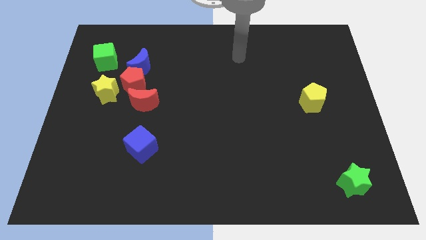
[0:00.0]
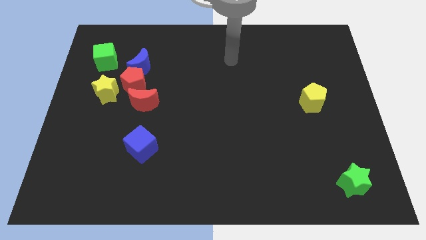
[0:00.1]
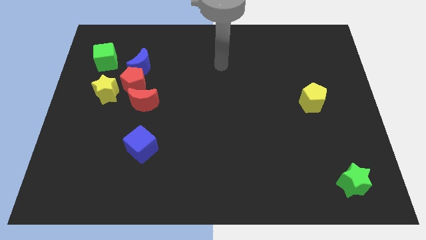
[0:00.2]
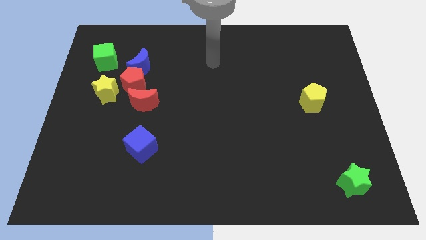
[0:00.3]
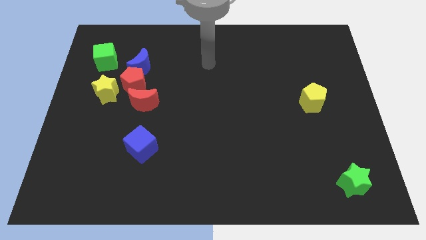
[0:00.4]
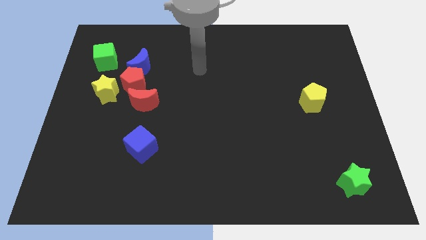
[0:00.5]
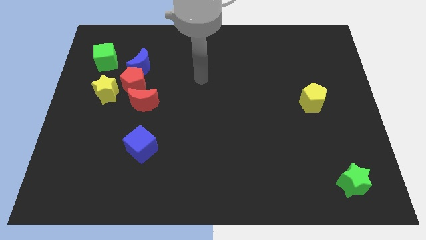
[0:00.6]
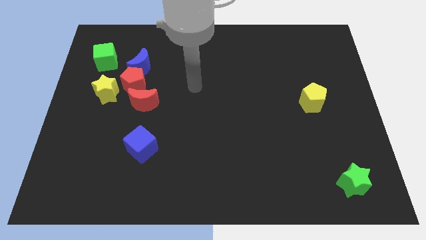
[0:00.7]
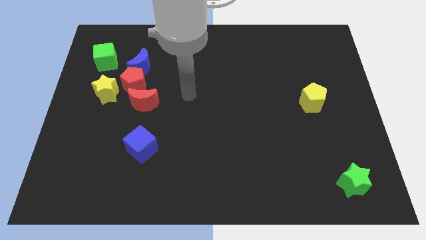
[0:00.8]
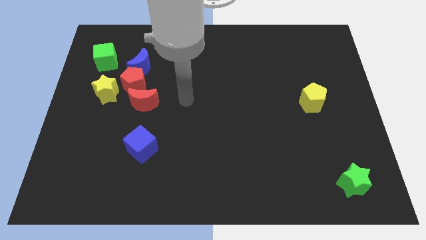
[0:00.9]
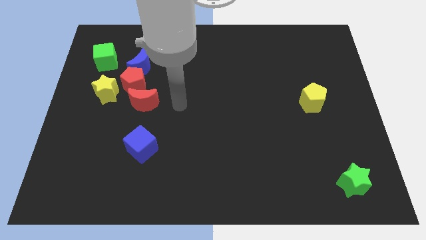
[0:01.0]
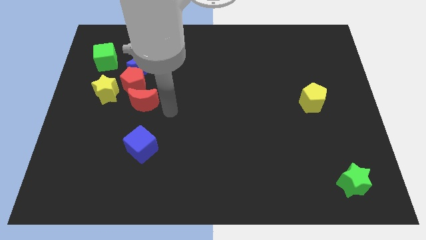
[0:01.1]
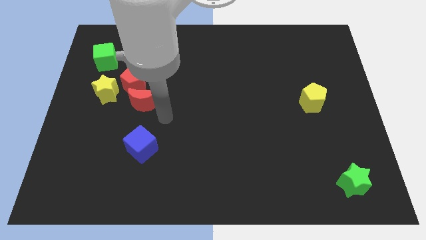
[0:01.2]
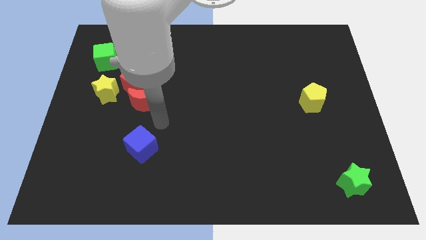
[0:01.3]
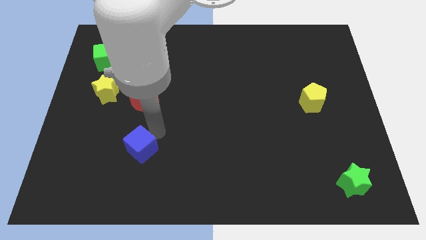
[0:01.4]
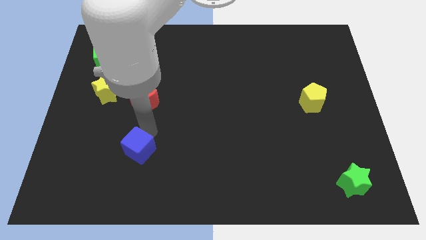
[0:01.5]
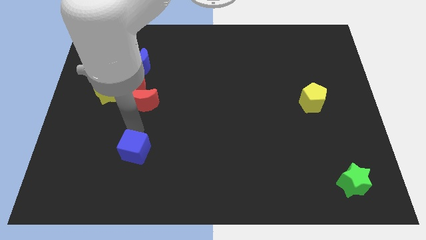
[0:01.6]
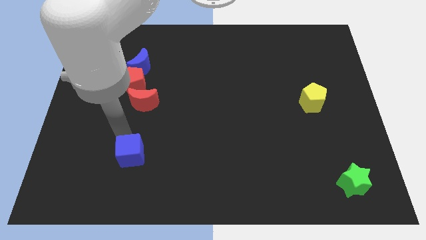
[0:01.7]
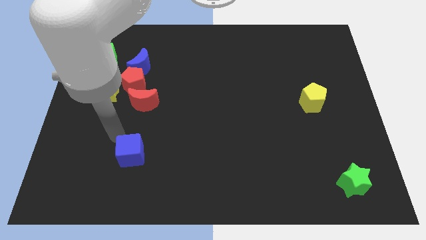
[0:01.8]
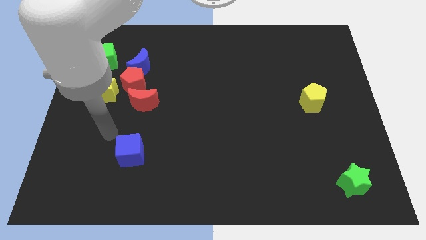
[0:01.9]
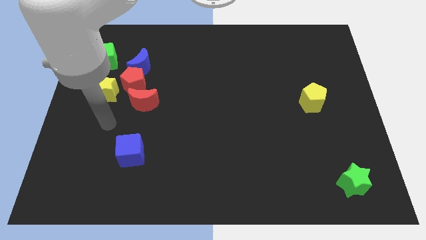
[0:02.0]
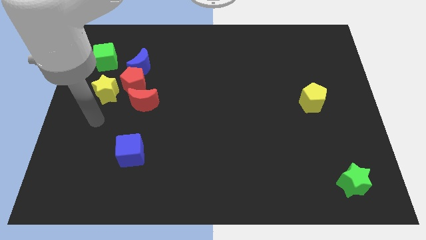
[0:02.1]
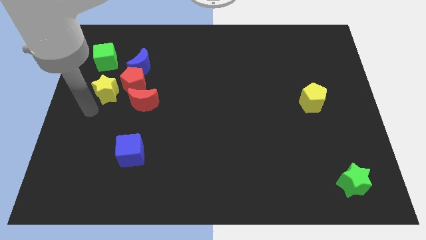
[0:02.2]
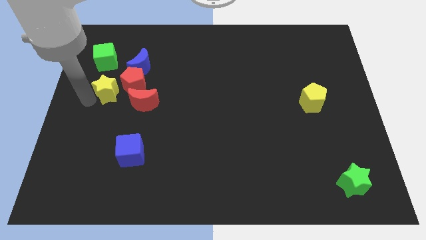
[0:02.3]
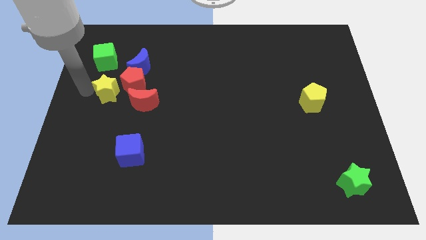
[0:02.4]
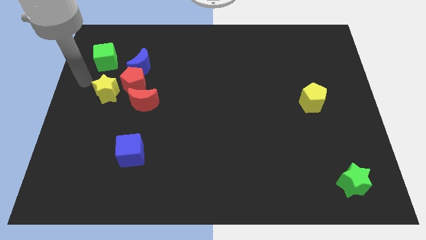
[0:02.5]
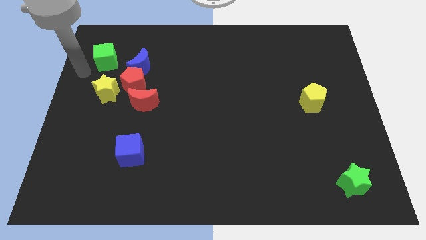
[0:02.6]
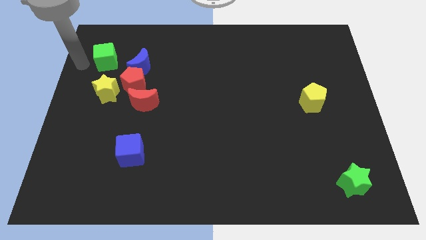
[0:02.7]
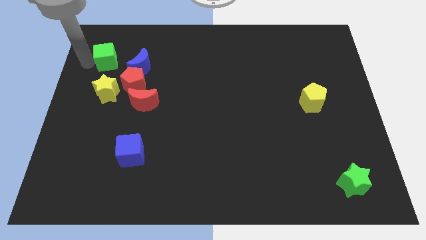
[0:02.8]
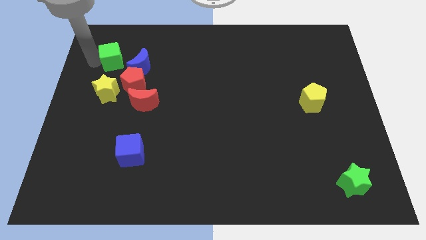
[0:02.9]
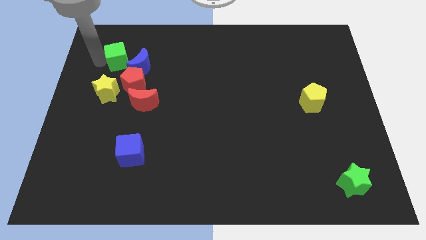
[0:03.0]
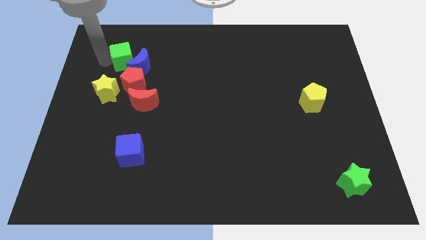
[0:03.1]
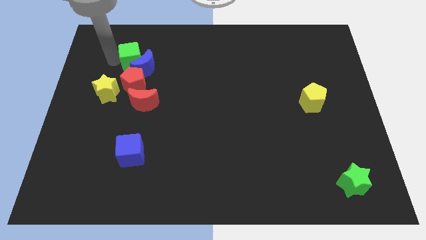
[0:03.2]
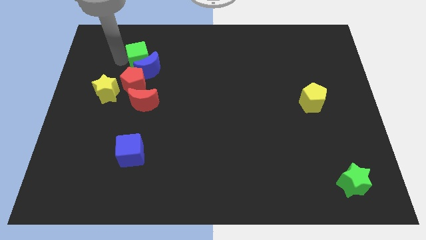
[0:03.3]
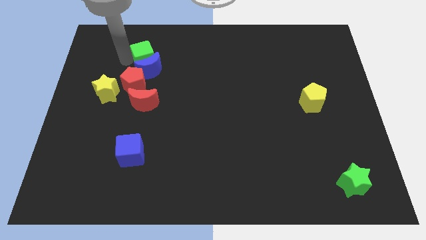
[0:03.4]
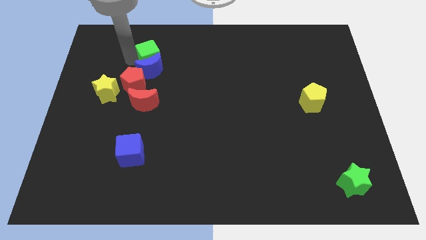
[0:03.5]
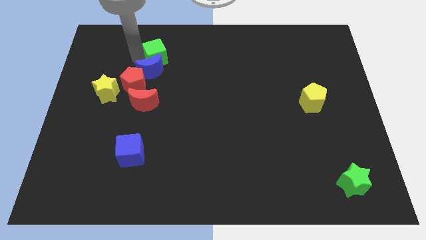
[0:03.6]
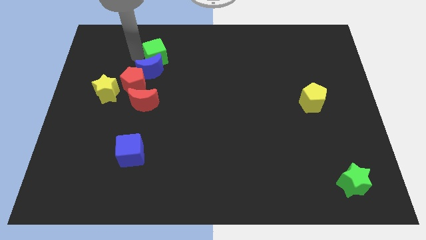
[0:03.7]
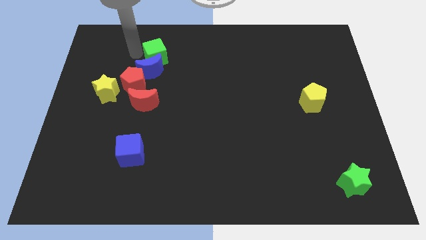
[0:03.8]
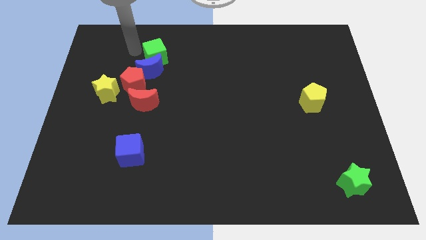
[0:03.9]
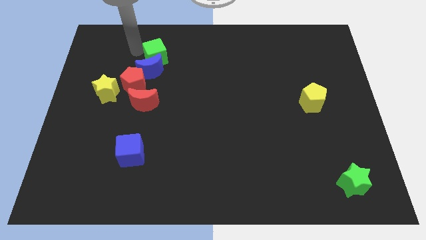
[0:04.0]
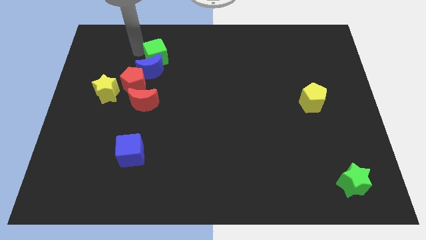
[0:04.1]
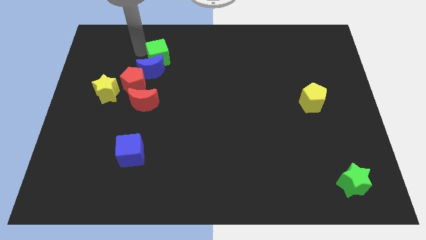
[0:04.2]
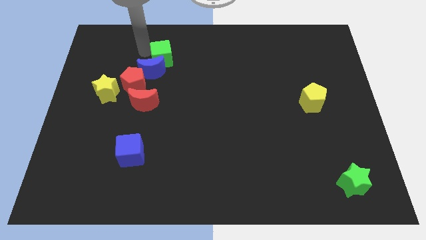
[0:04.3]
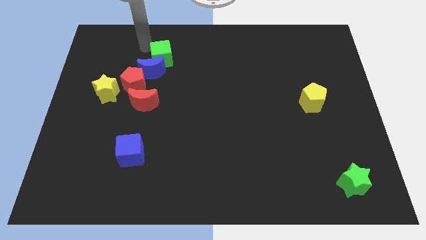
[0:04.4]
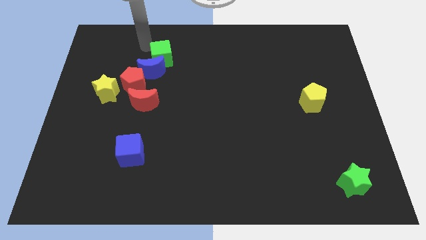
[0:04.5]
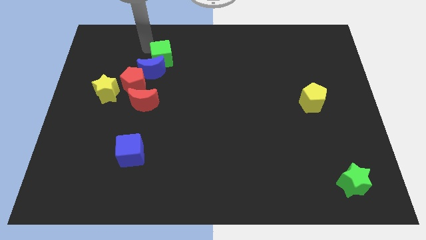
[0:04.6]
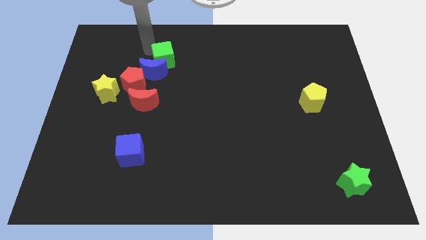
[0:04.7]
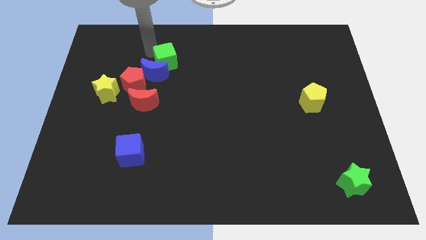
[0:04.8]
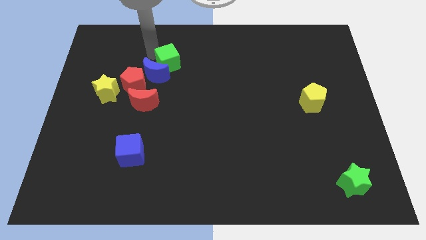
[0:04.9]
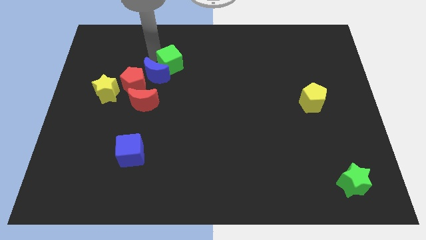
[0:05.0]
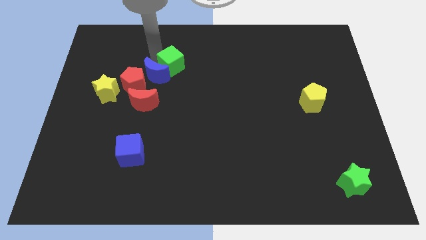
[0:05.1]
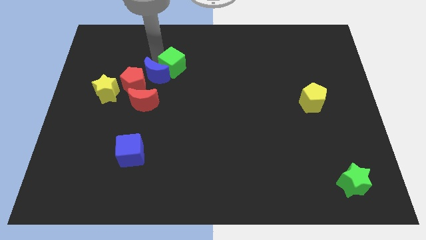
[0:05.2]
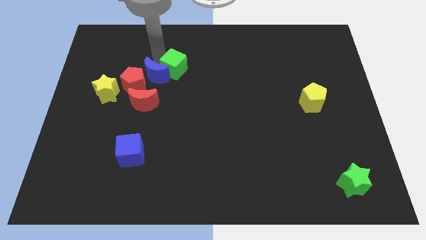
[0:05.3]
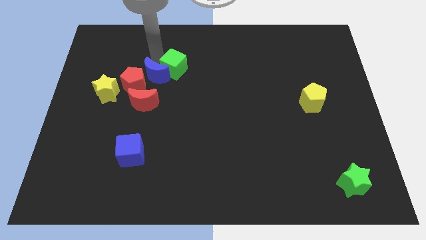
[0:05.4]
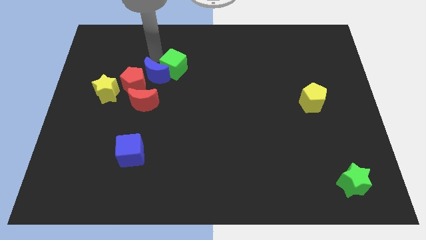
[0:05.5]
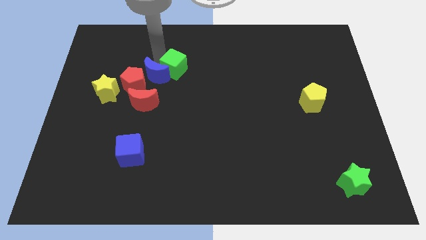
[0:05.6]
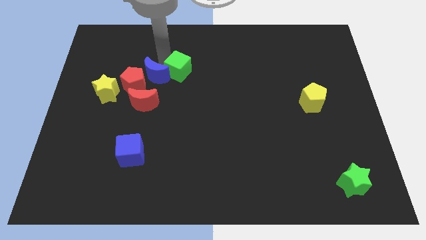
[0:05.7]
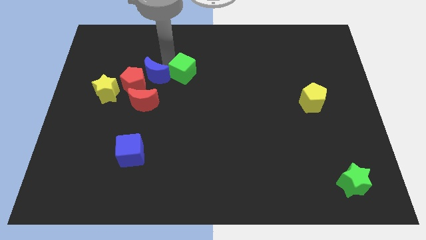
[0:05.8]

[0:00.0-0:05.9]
push the green cube to the center of the board

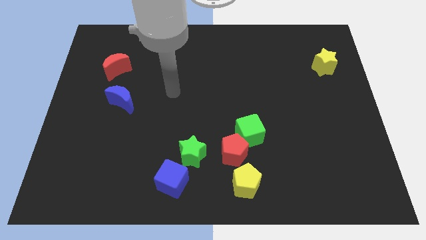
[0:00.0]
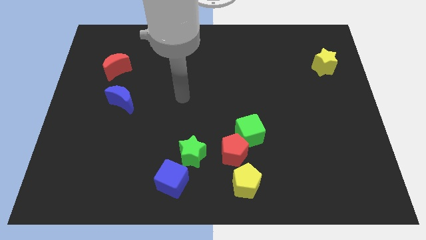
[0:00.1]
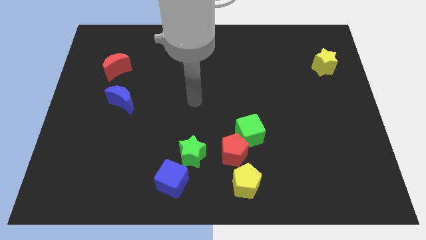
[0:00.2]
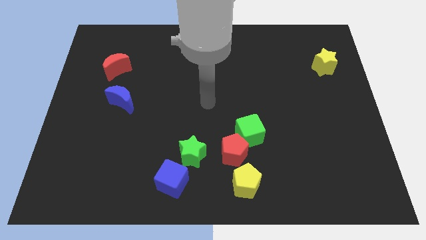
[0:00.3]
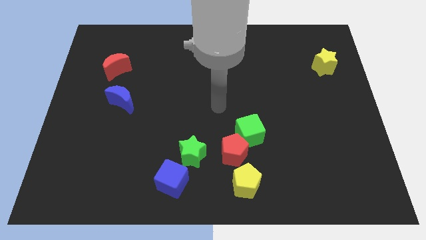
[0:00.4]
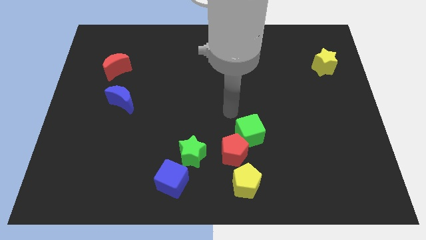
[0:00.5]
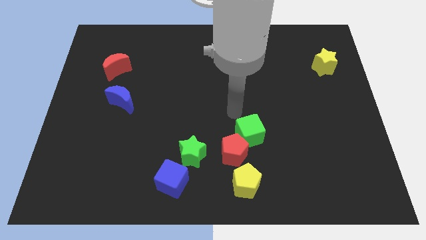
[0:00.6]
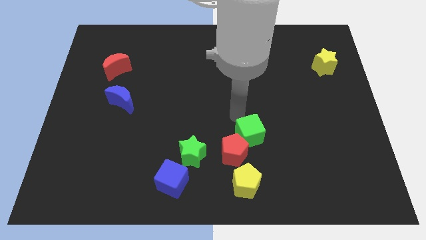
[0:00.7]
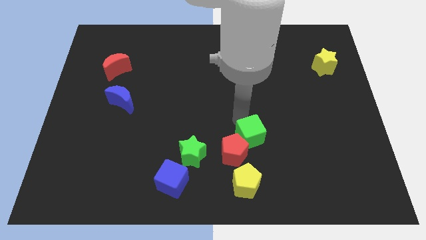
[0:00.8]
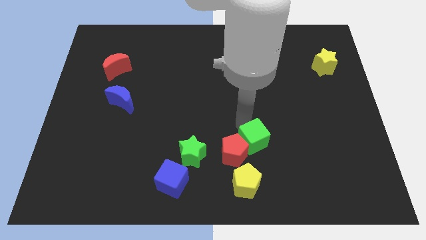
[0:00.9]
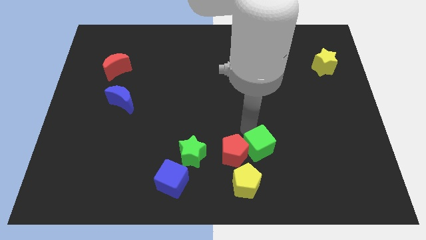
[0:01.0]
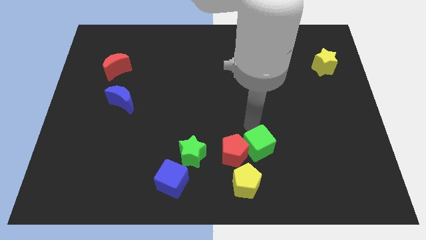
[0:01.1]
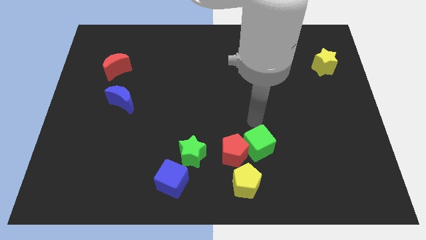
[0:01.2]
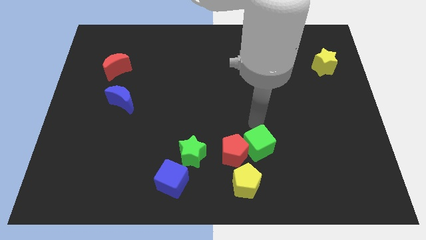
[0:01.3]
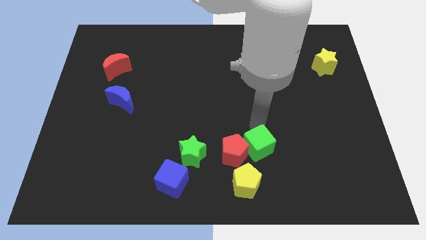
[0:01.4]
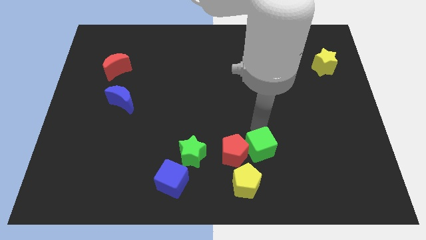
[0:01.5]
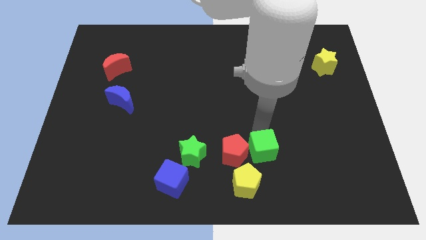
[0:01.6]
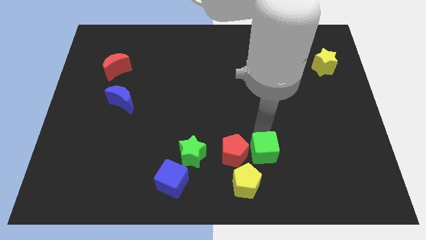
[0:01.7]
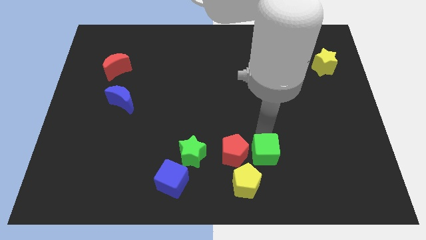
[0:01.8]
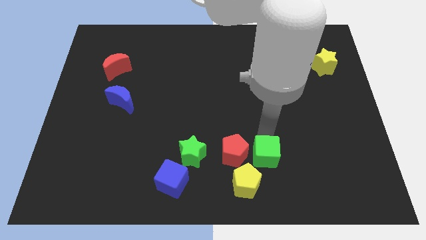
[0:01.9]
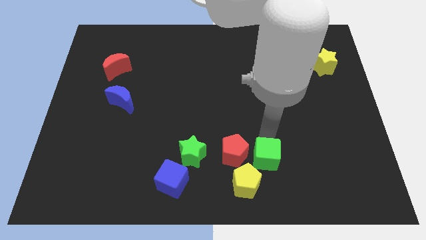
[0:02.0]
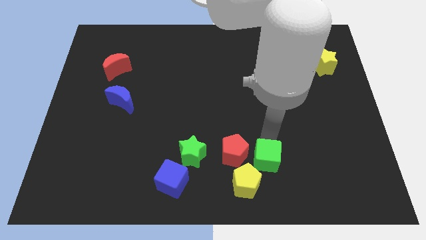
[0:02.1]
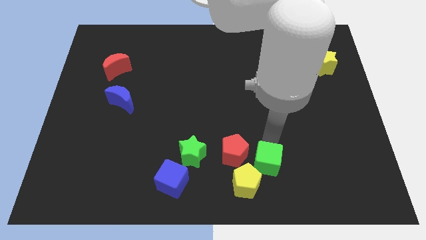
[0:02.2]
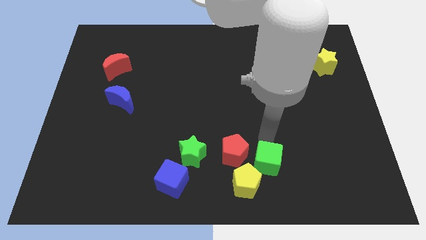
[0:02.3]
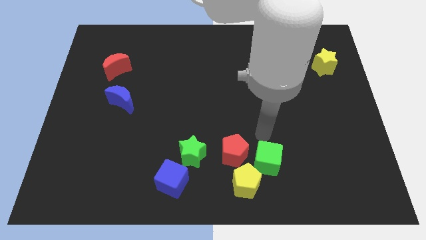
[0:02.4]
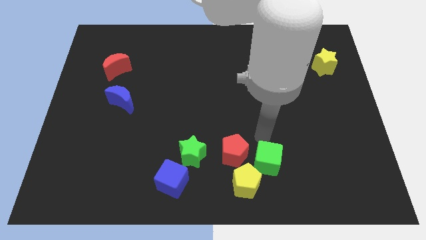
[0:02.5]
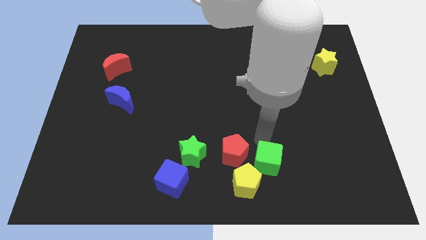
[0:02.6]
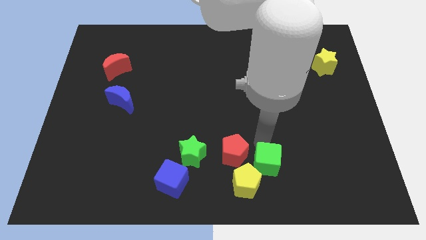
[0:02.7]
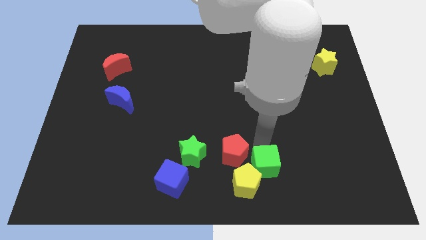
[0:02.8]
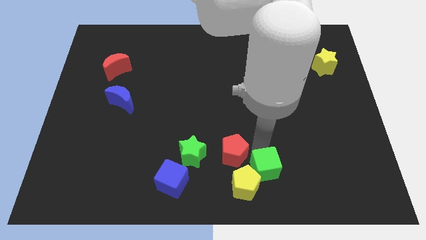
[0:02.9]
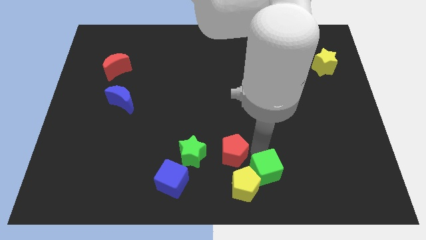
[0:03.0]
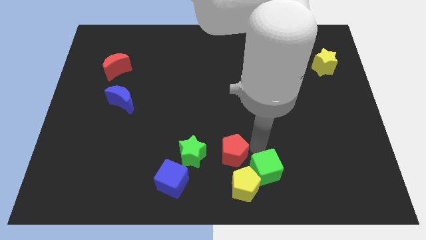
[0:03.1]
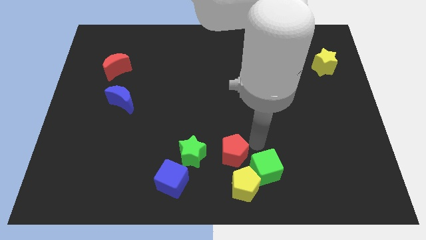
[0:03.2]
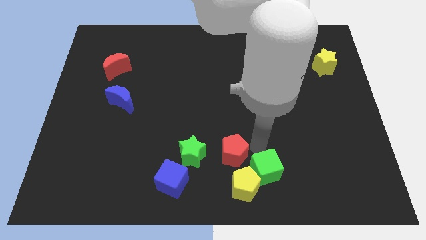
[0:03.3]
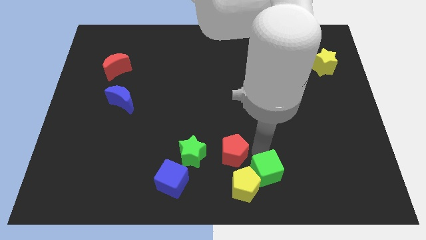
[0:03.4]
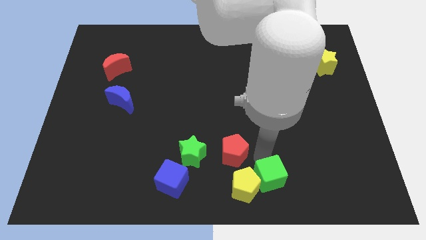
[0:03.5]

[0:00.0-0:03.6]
push the green cube to the bottom
